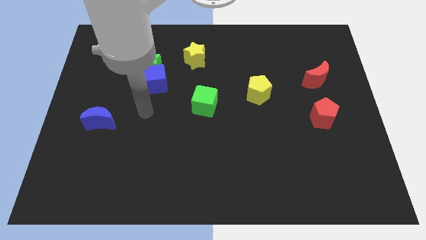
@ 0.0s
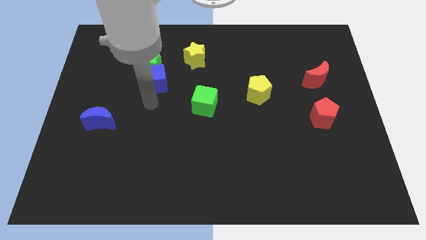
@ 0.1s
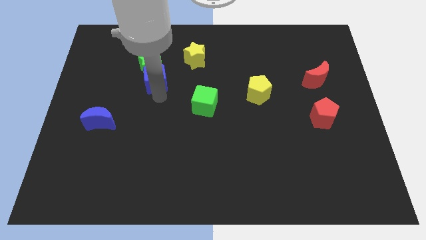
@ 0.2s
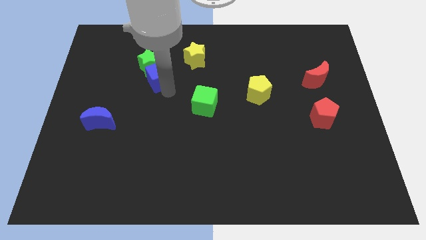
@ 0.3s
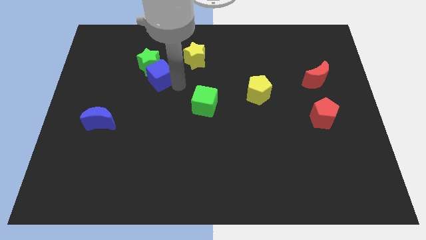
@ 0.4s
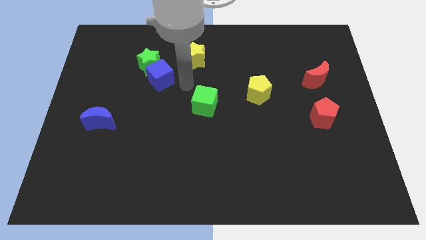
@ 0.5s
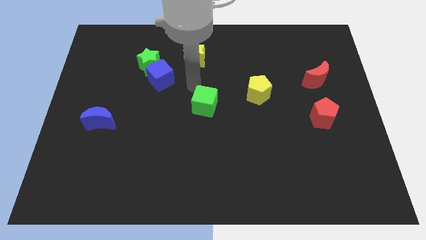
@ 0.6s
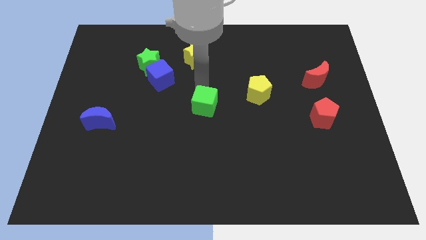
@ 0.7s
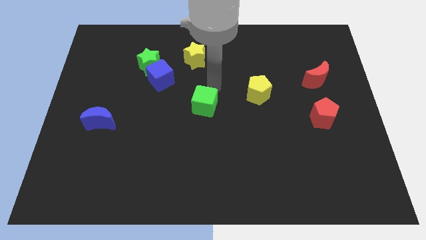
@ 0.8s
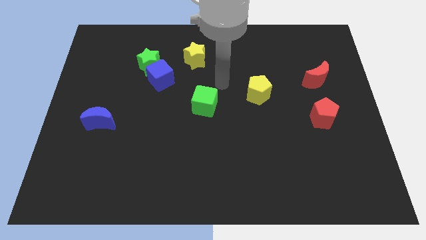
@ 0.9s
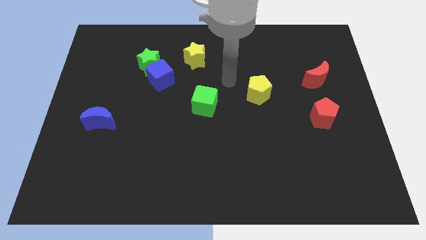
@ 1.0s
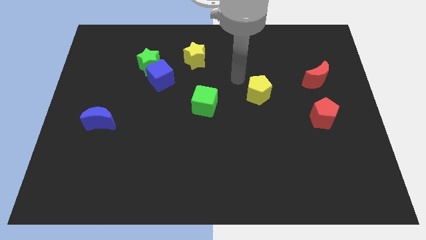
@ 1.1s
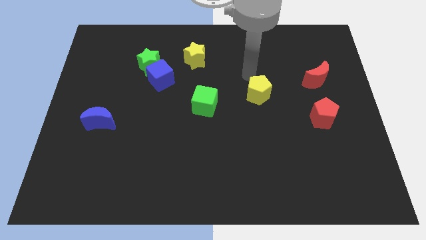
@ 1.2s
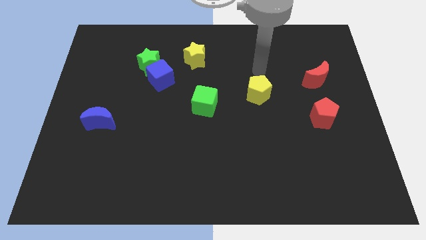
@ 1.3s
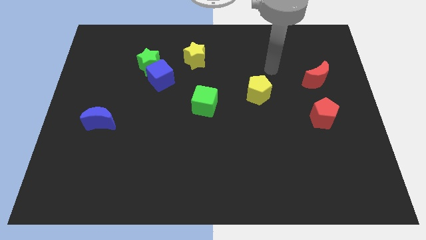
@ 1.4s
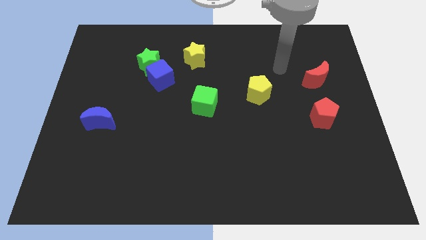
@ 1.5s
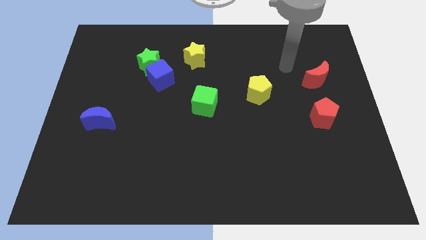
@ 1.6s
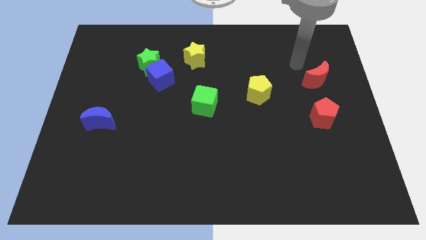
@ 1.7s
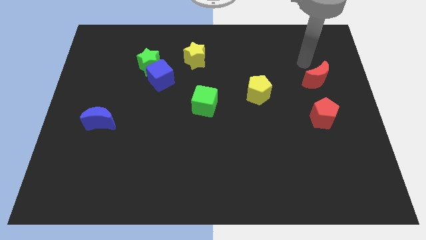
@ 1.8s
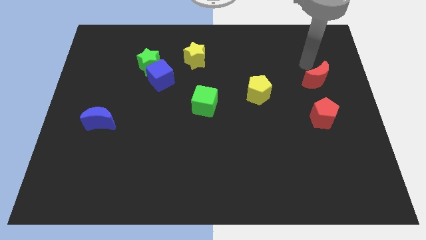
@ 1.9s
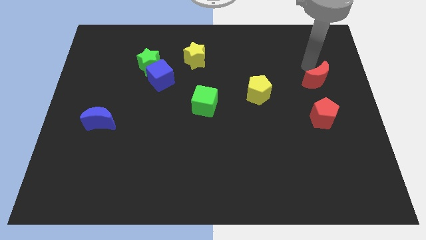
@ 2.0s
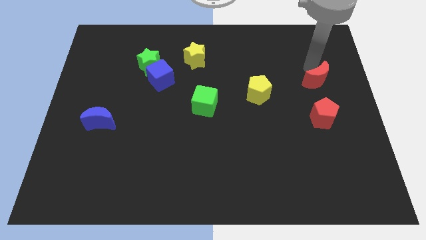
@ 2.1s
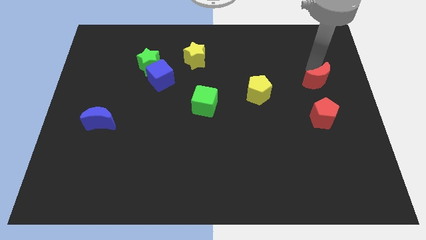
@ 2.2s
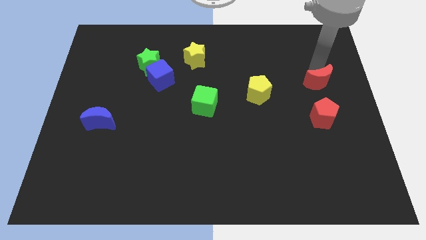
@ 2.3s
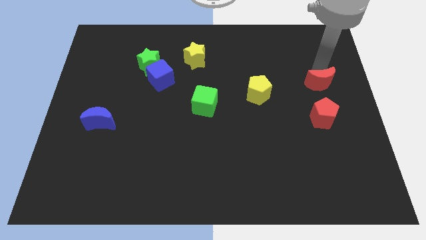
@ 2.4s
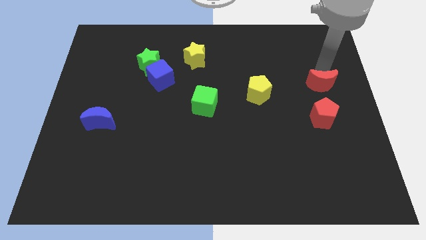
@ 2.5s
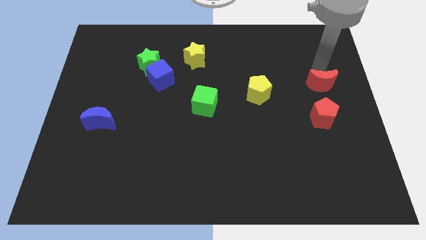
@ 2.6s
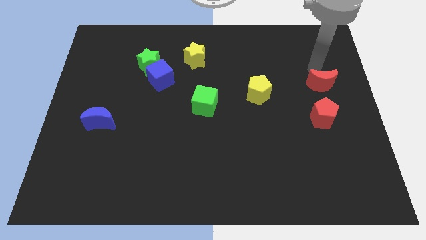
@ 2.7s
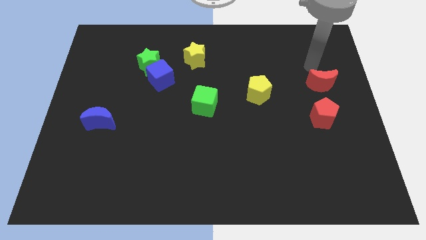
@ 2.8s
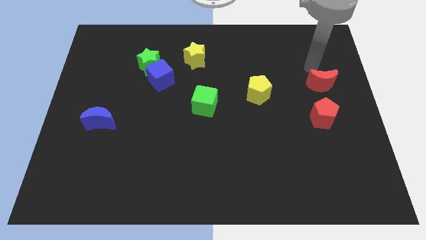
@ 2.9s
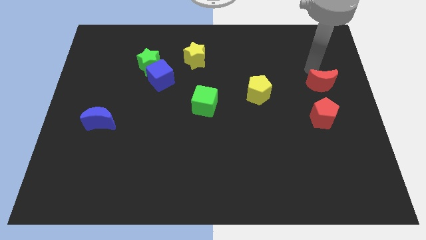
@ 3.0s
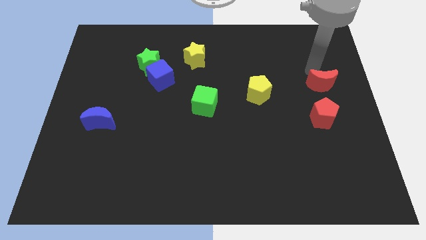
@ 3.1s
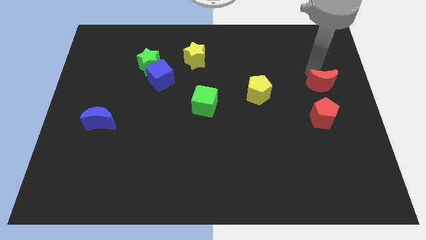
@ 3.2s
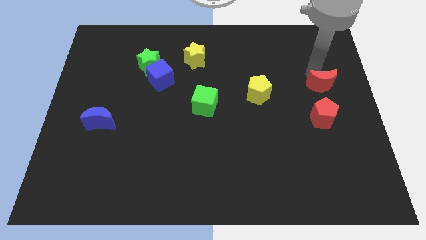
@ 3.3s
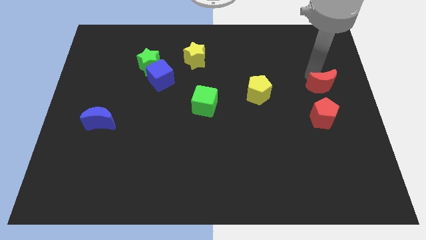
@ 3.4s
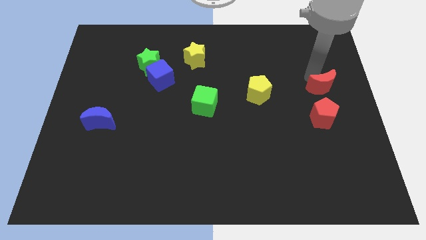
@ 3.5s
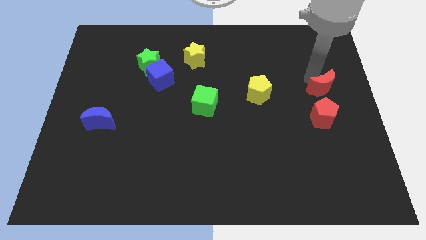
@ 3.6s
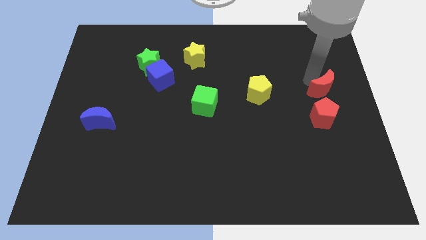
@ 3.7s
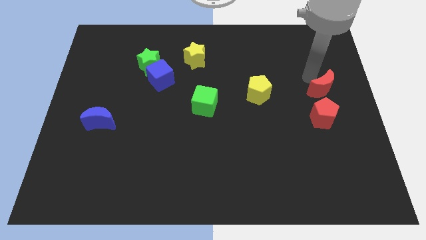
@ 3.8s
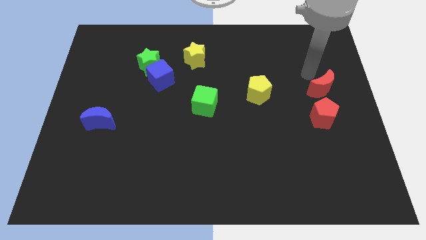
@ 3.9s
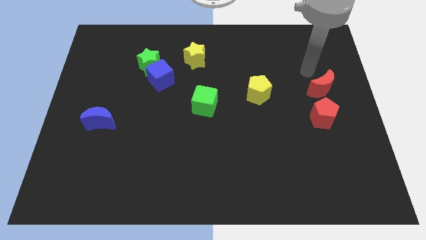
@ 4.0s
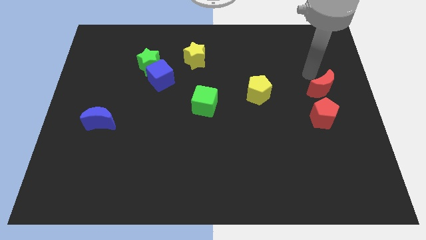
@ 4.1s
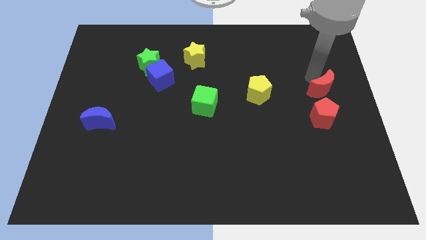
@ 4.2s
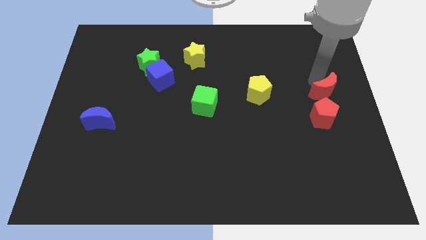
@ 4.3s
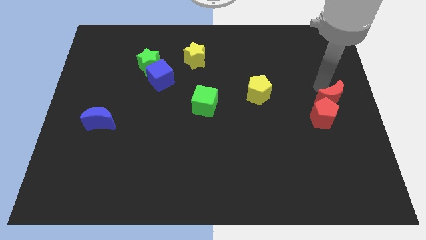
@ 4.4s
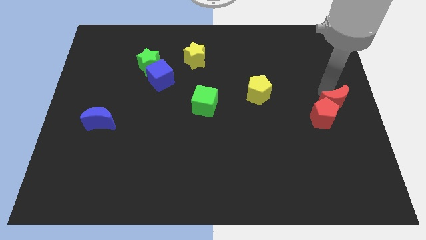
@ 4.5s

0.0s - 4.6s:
slightly move the red moon down

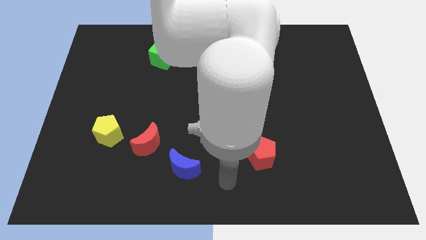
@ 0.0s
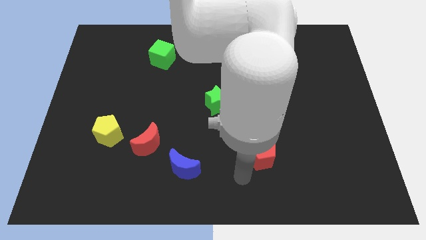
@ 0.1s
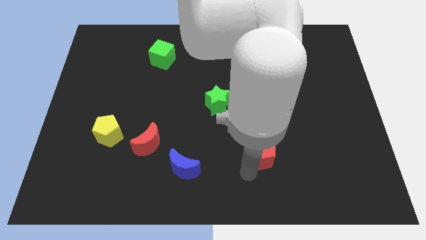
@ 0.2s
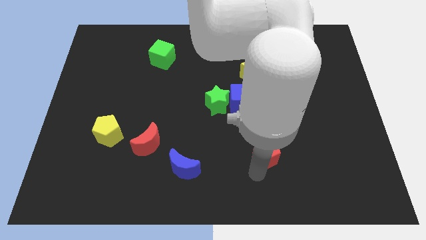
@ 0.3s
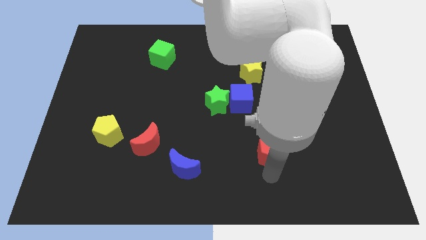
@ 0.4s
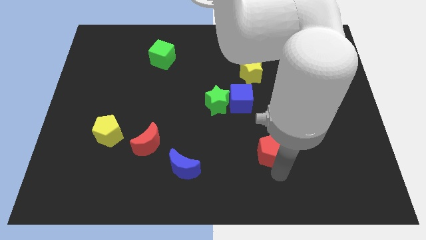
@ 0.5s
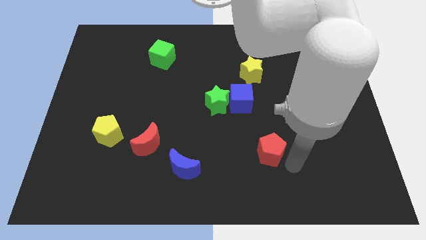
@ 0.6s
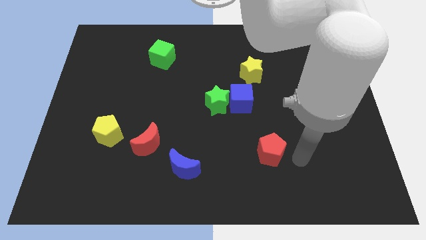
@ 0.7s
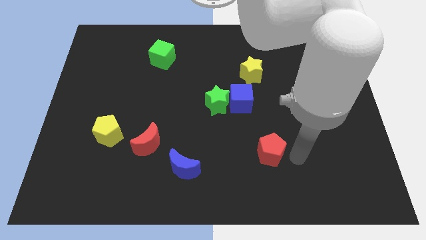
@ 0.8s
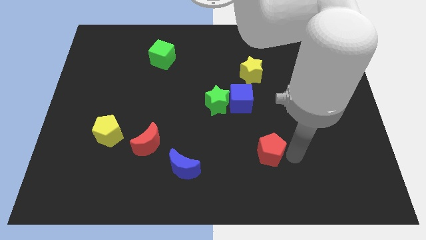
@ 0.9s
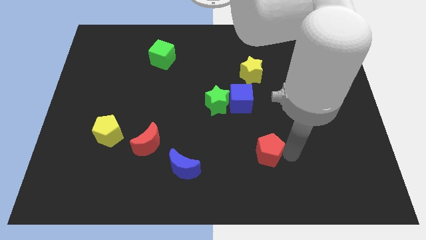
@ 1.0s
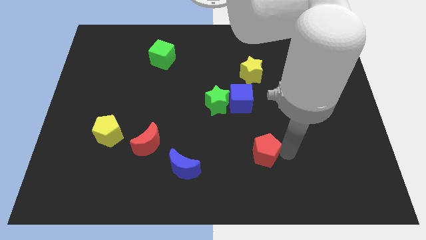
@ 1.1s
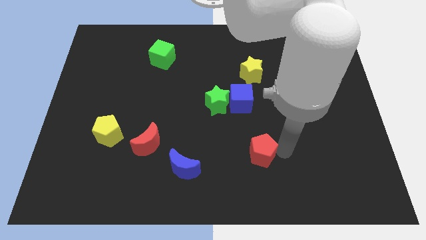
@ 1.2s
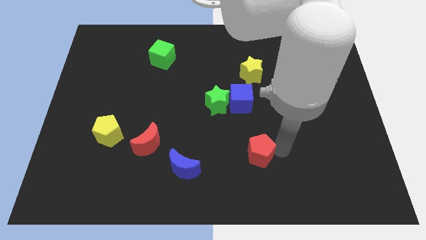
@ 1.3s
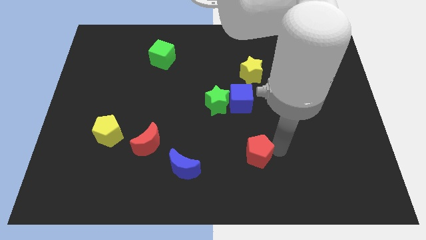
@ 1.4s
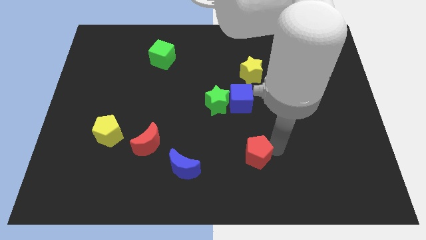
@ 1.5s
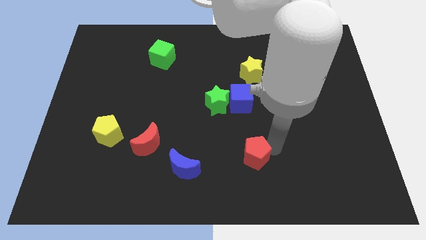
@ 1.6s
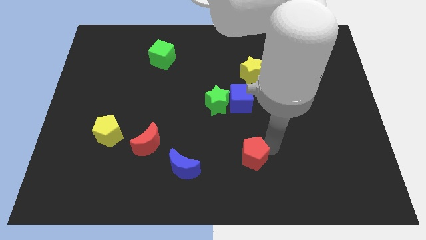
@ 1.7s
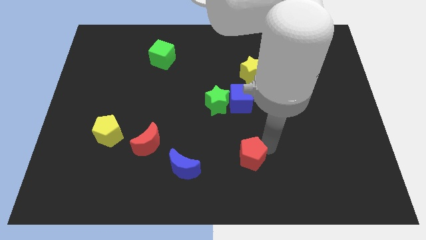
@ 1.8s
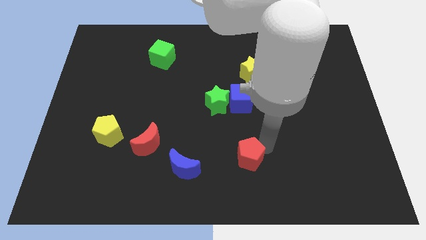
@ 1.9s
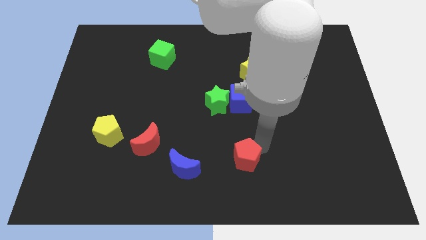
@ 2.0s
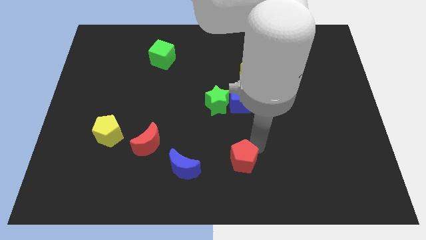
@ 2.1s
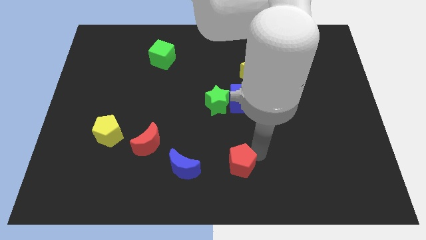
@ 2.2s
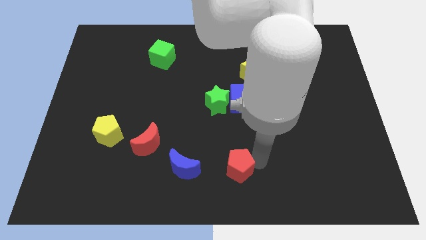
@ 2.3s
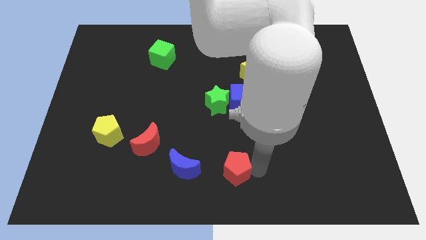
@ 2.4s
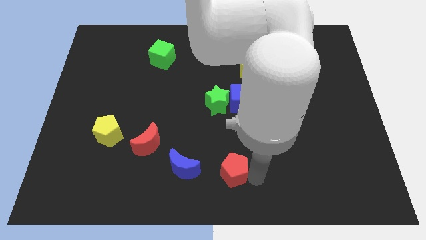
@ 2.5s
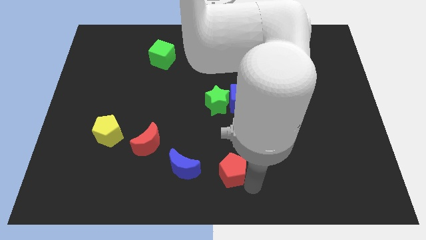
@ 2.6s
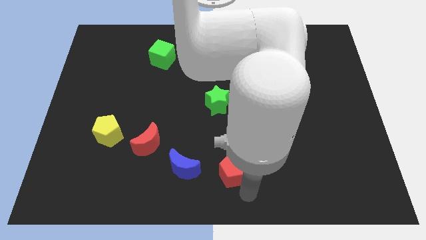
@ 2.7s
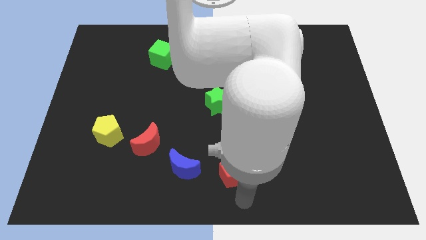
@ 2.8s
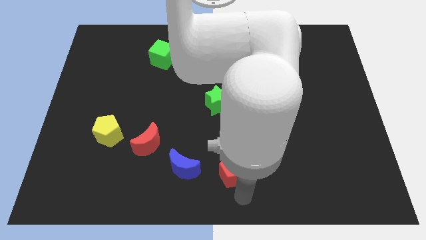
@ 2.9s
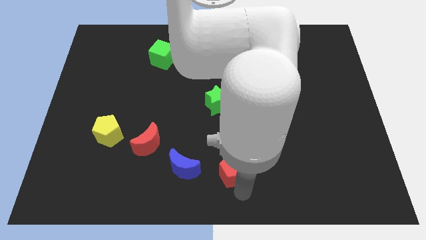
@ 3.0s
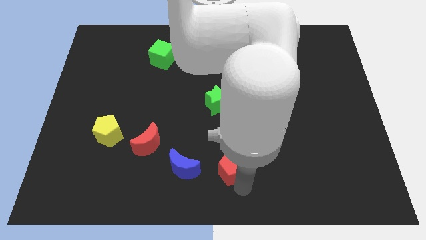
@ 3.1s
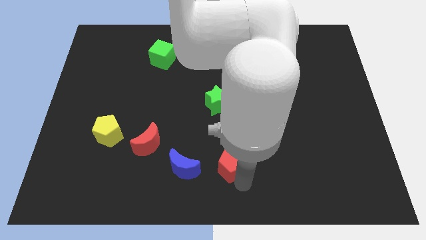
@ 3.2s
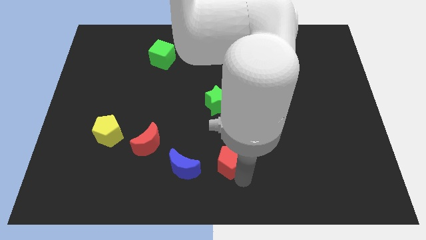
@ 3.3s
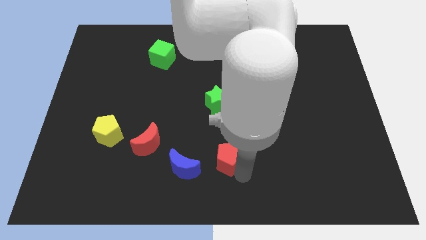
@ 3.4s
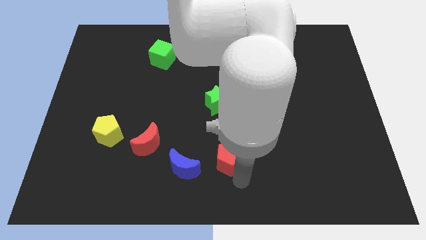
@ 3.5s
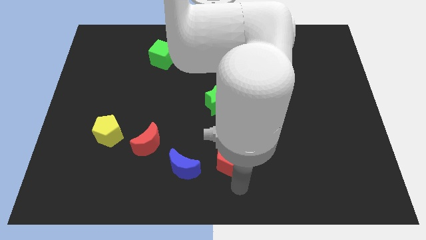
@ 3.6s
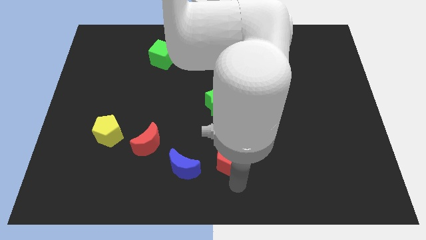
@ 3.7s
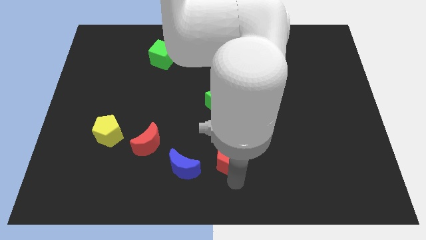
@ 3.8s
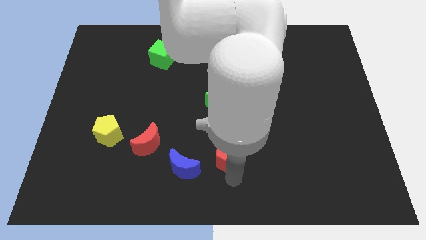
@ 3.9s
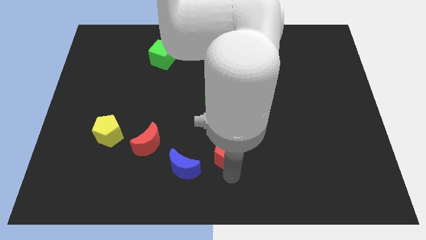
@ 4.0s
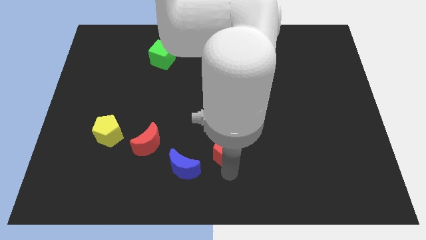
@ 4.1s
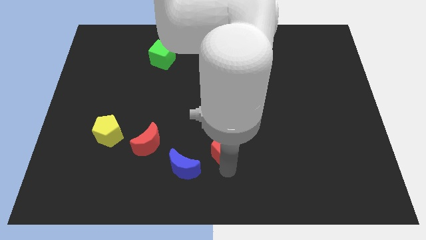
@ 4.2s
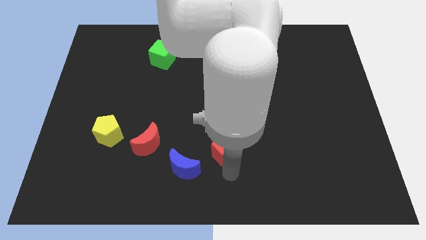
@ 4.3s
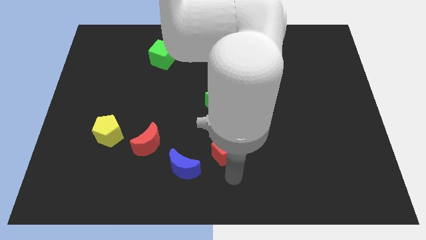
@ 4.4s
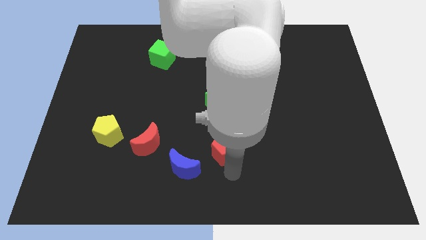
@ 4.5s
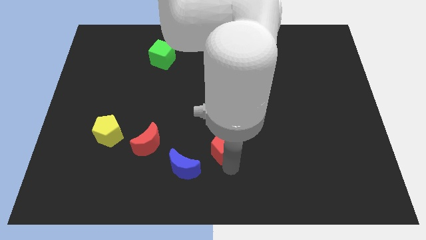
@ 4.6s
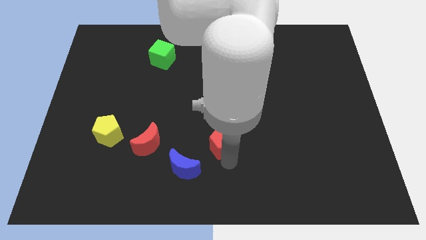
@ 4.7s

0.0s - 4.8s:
move the red pentagon a little diagonally up and left
